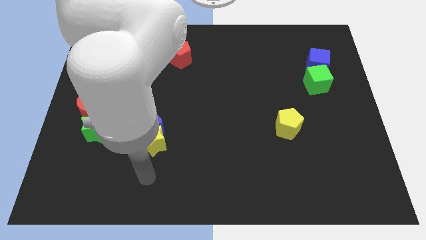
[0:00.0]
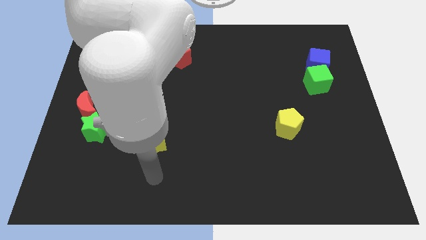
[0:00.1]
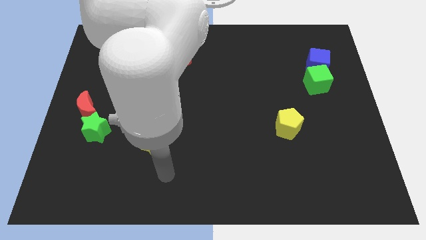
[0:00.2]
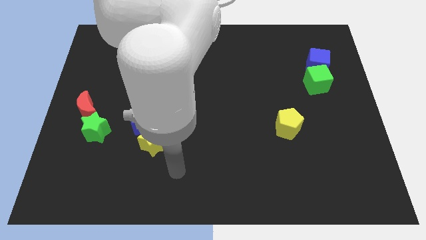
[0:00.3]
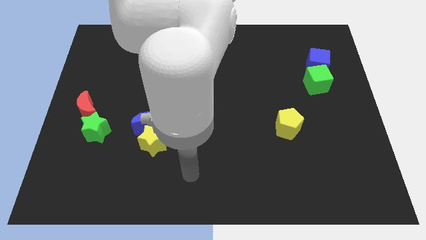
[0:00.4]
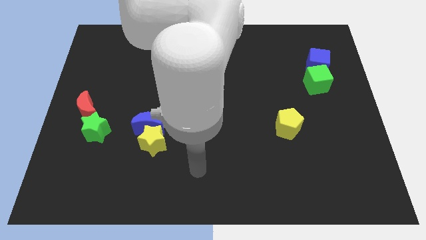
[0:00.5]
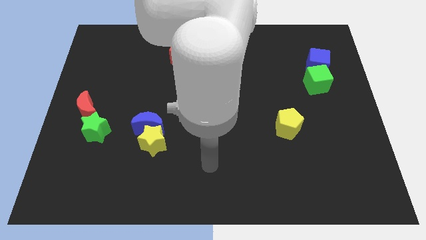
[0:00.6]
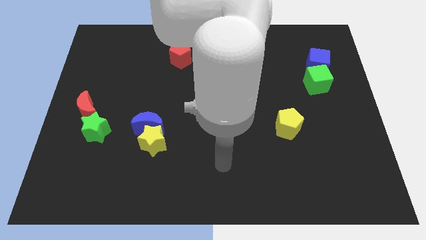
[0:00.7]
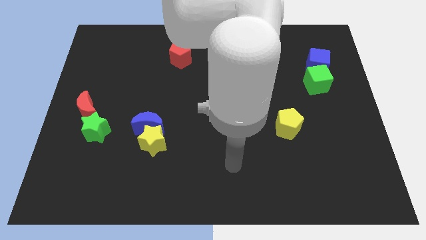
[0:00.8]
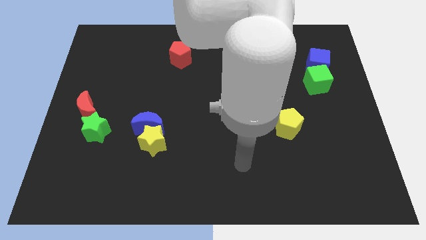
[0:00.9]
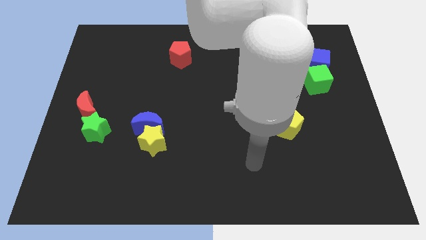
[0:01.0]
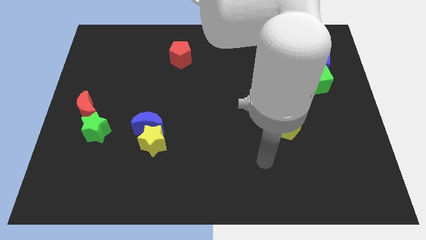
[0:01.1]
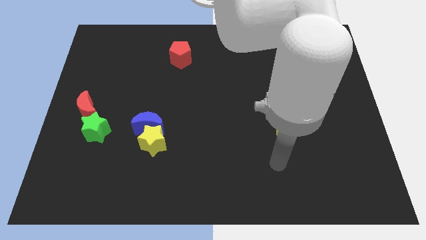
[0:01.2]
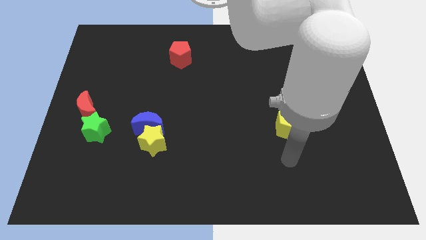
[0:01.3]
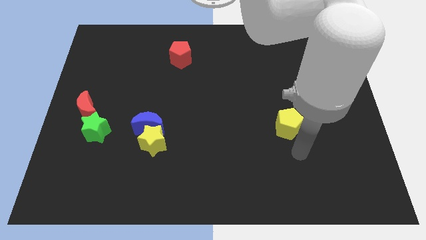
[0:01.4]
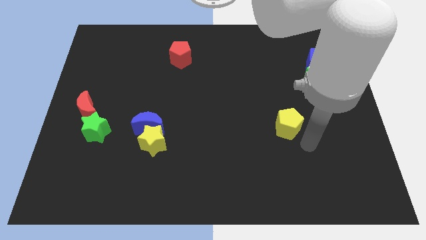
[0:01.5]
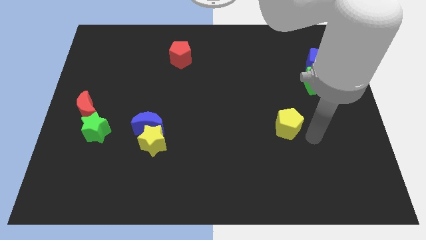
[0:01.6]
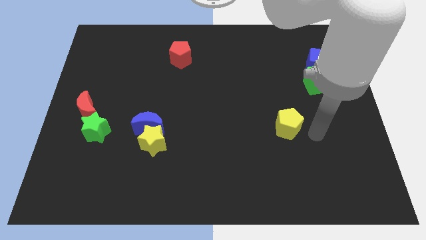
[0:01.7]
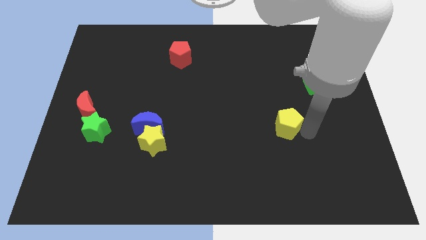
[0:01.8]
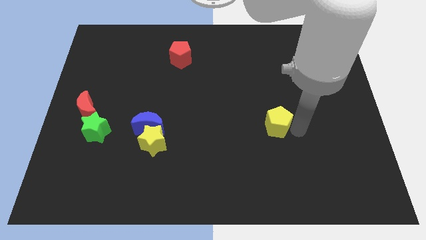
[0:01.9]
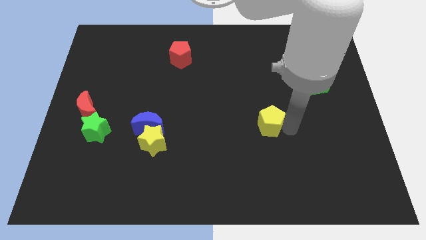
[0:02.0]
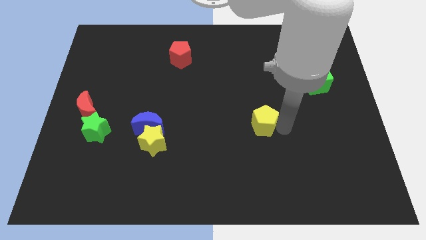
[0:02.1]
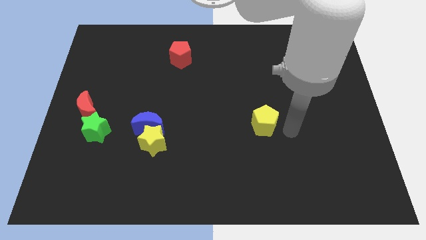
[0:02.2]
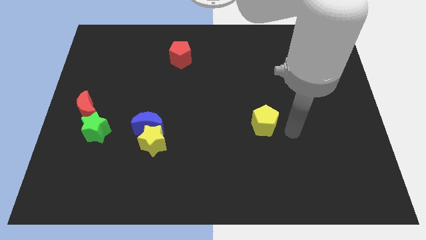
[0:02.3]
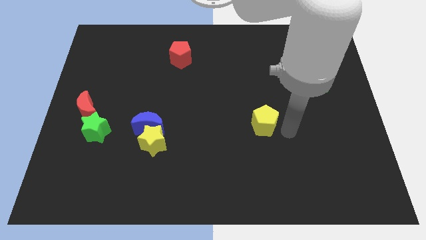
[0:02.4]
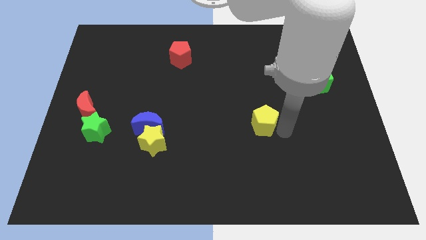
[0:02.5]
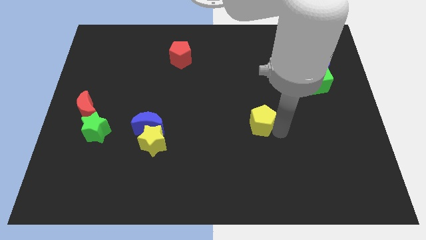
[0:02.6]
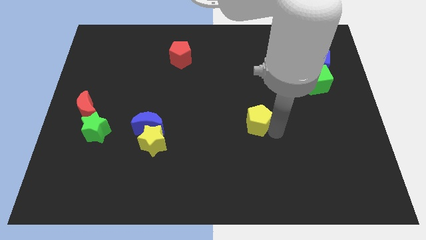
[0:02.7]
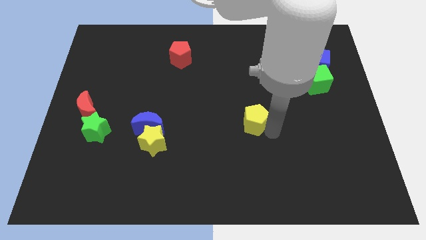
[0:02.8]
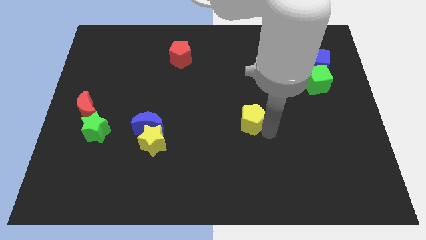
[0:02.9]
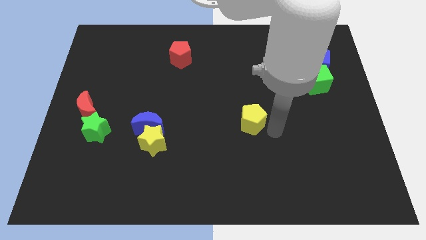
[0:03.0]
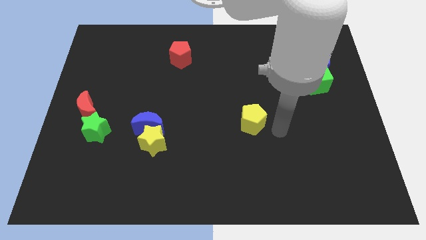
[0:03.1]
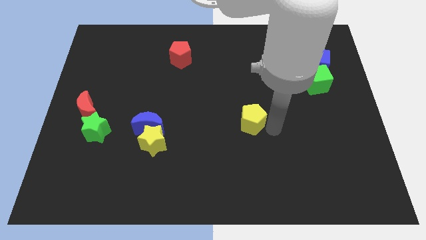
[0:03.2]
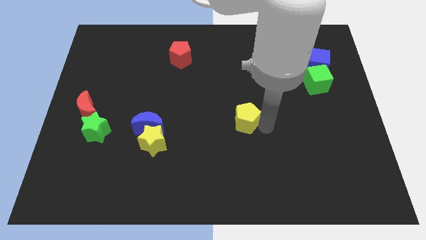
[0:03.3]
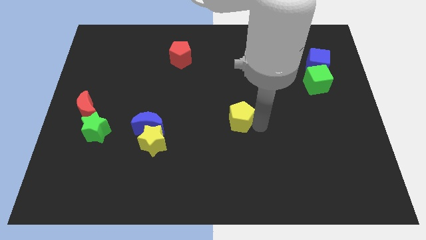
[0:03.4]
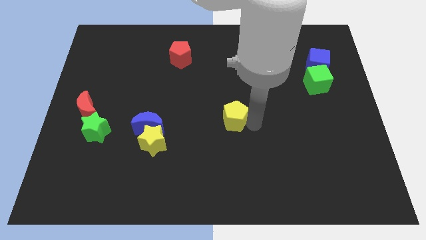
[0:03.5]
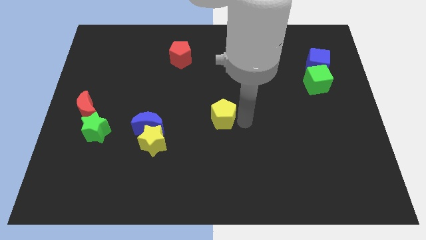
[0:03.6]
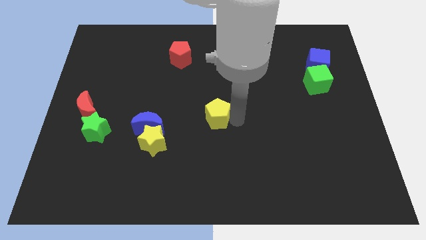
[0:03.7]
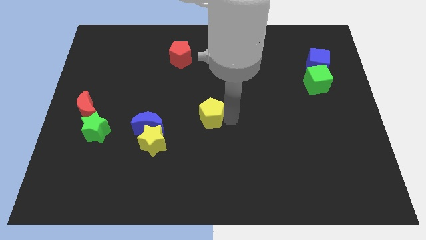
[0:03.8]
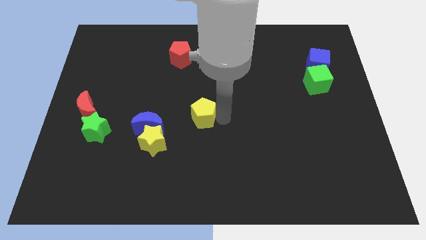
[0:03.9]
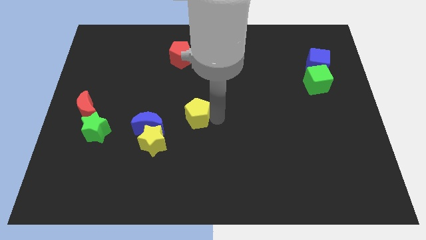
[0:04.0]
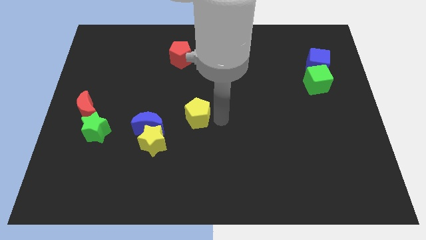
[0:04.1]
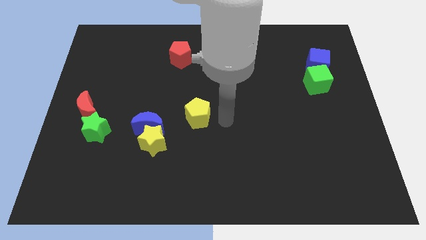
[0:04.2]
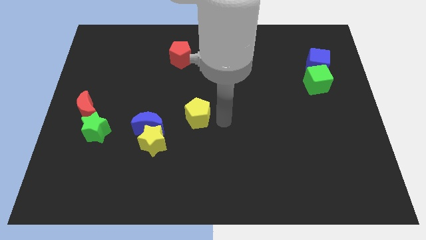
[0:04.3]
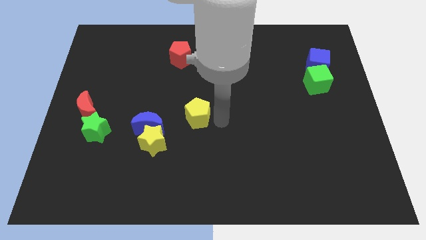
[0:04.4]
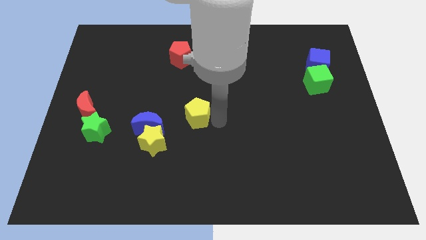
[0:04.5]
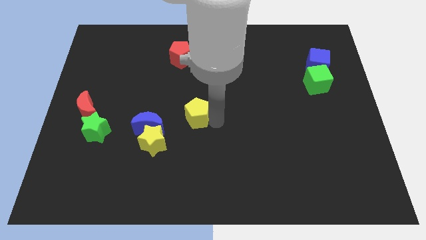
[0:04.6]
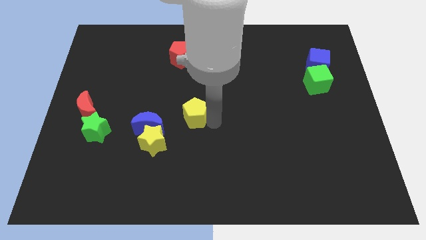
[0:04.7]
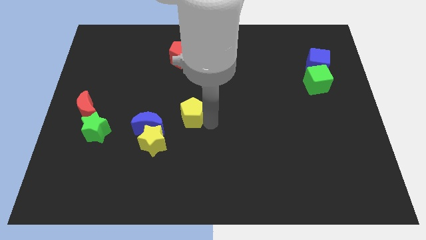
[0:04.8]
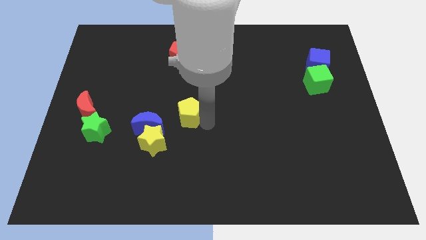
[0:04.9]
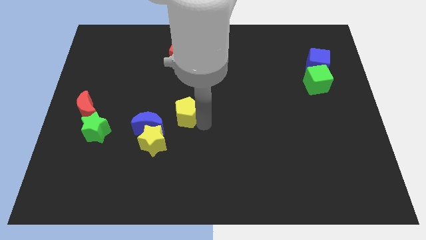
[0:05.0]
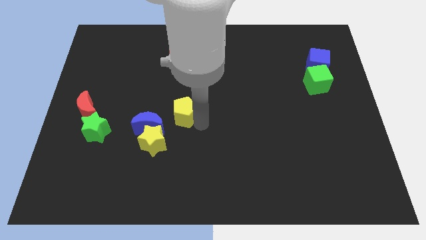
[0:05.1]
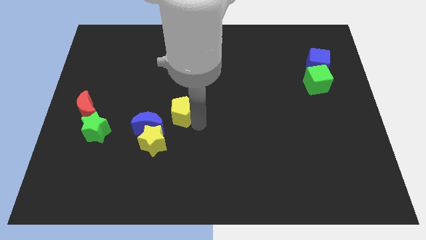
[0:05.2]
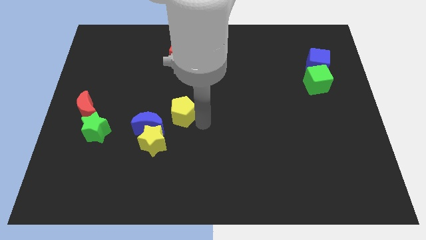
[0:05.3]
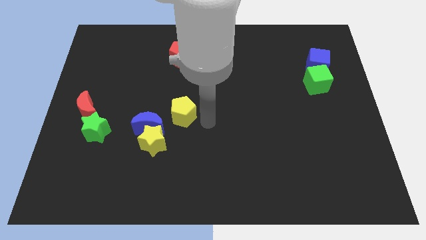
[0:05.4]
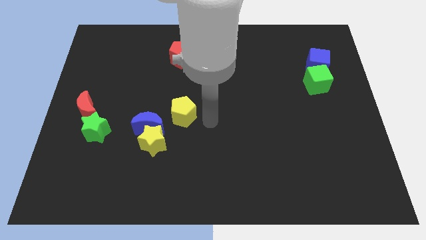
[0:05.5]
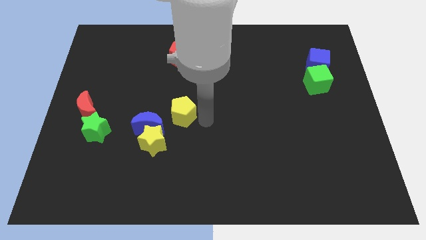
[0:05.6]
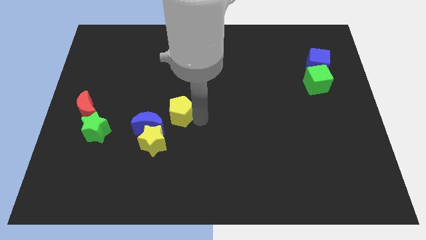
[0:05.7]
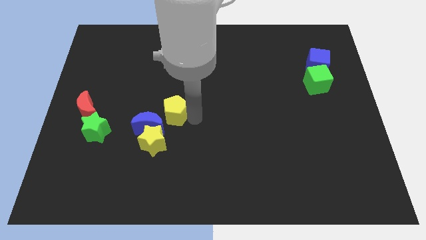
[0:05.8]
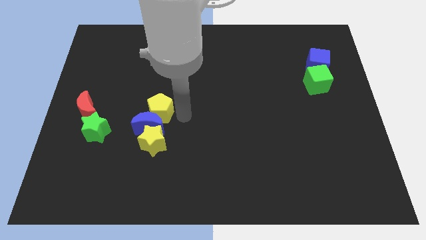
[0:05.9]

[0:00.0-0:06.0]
push the yellow pentagon to the top left of the blue moon

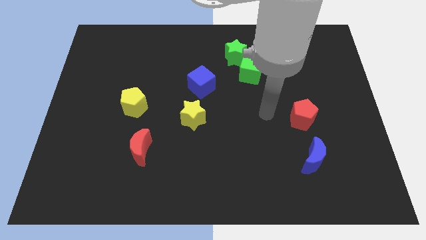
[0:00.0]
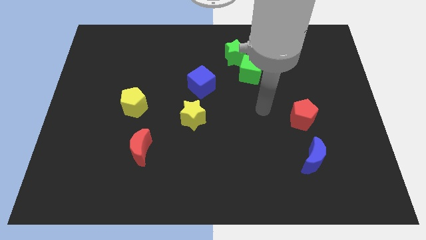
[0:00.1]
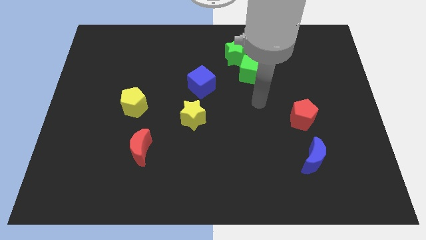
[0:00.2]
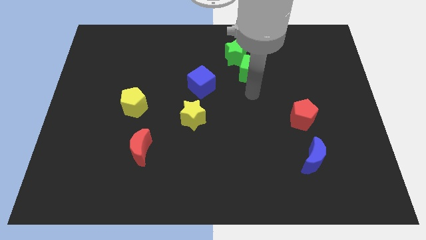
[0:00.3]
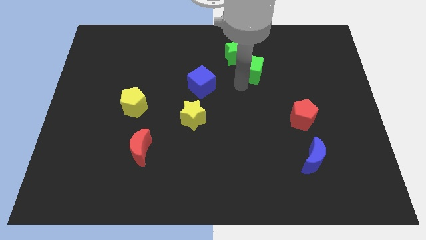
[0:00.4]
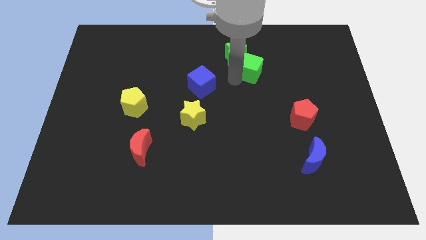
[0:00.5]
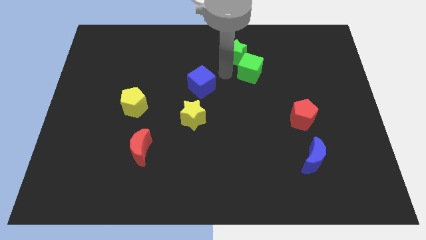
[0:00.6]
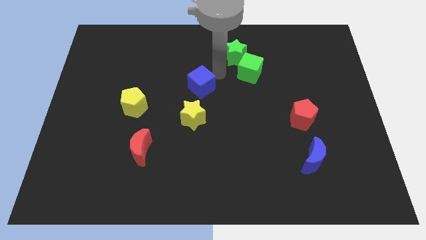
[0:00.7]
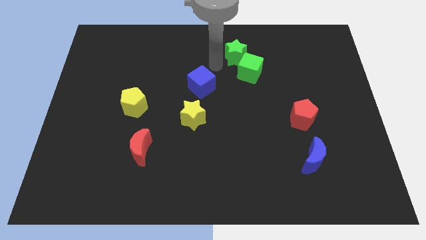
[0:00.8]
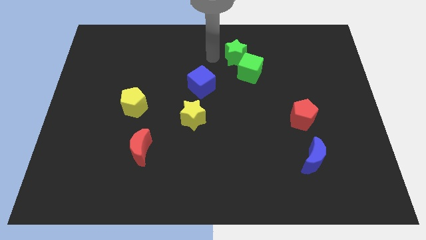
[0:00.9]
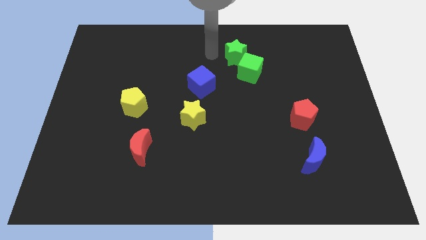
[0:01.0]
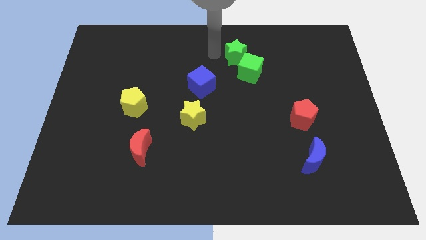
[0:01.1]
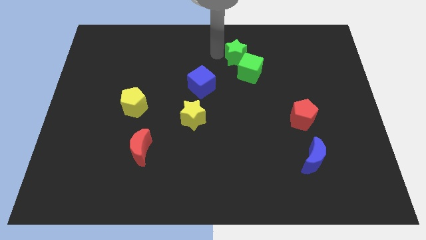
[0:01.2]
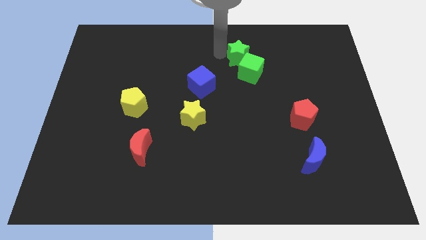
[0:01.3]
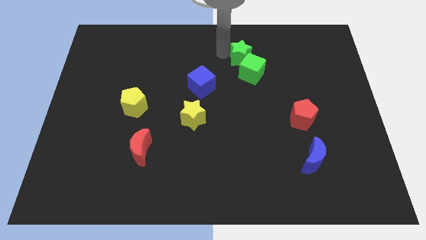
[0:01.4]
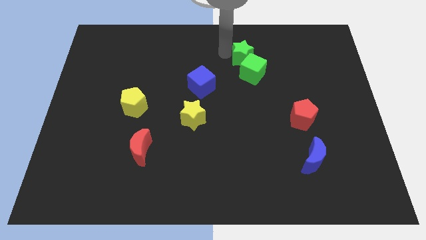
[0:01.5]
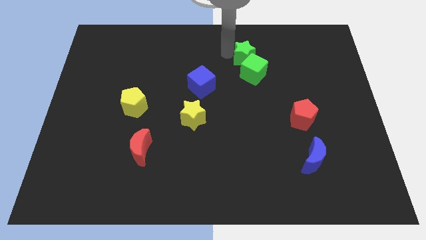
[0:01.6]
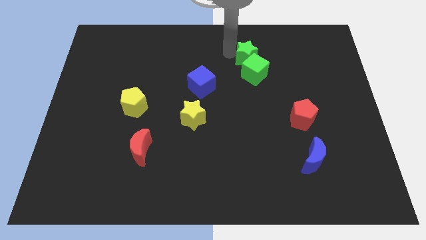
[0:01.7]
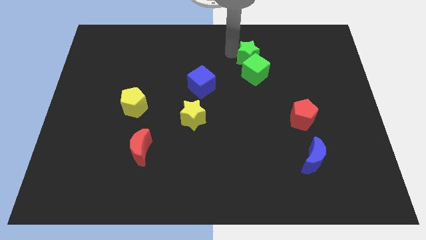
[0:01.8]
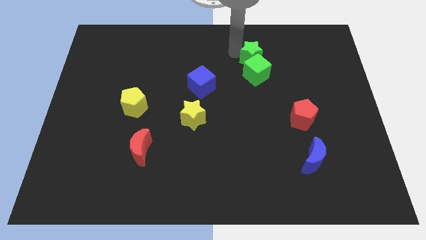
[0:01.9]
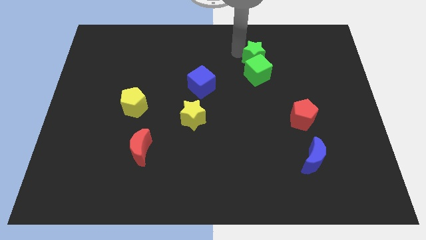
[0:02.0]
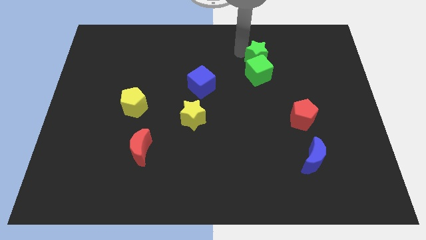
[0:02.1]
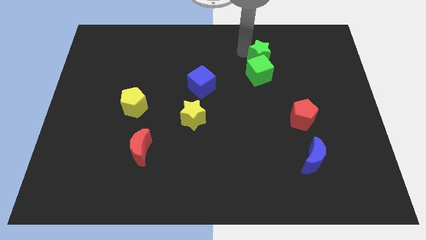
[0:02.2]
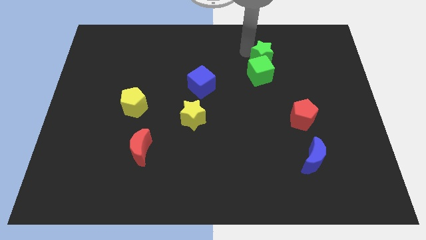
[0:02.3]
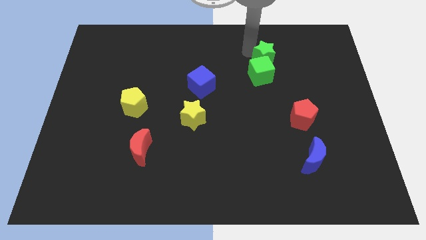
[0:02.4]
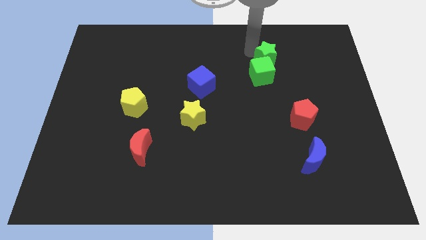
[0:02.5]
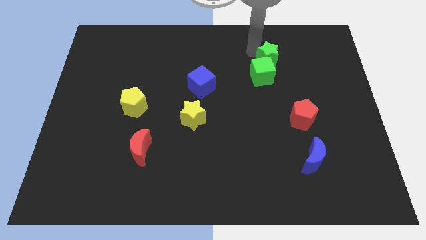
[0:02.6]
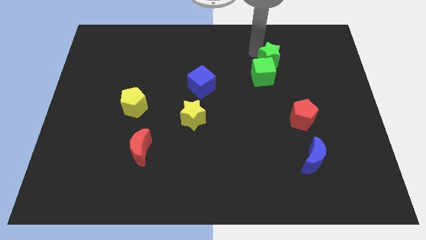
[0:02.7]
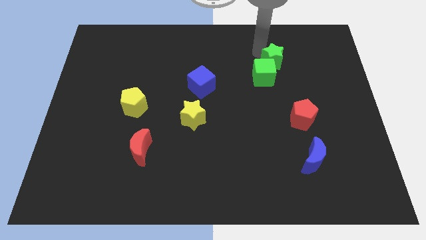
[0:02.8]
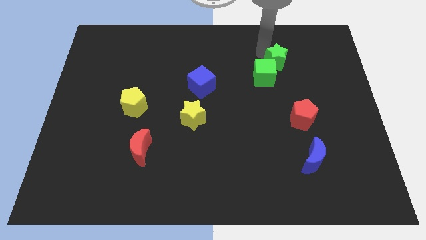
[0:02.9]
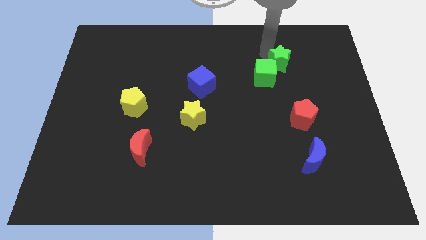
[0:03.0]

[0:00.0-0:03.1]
put the green star to the right side of the green cube
